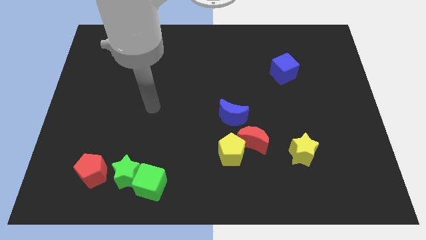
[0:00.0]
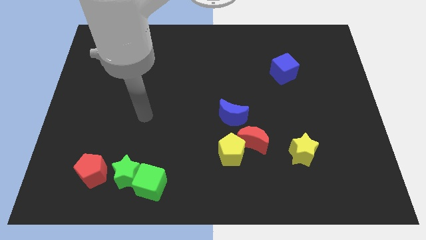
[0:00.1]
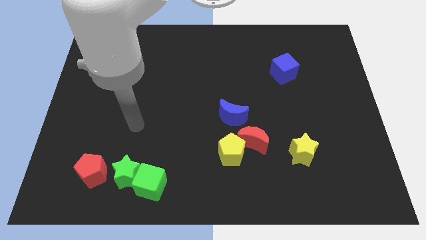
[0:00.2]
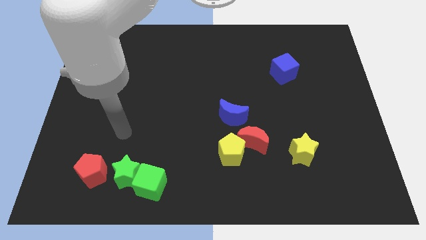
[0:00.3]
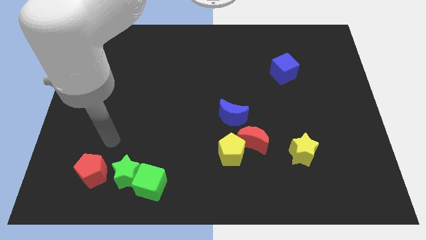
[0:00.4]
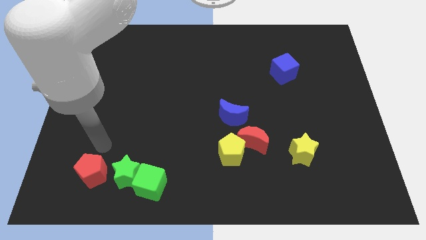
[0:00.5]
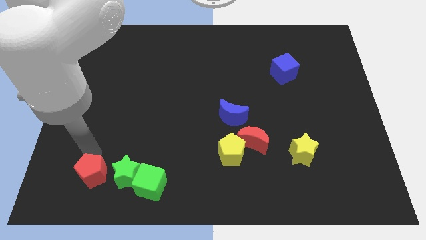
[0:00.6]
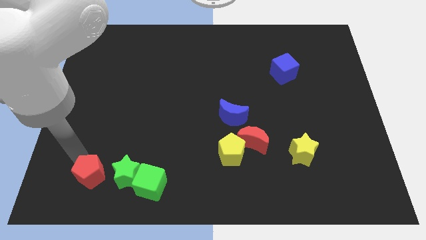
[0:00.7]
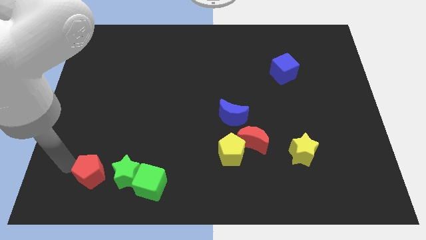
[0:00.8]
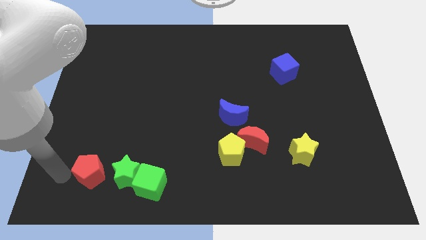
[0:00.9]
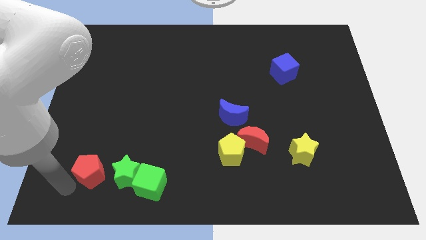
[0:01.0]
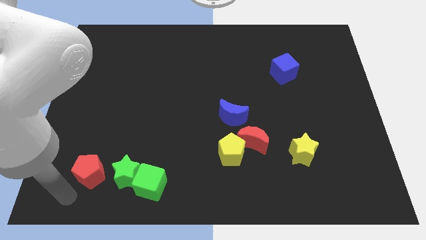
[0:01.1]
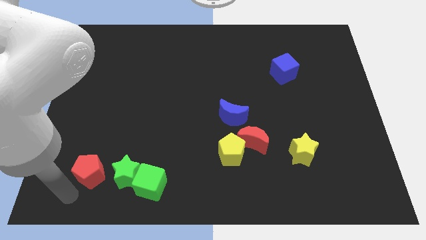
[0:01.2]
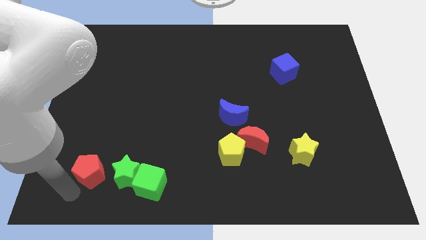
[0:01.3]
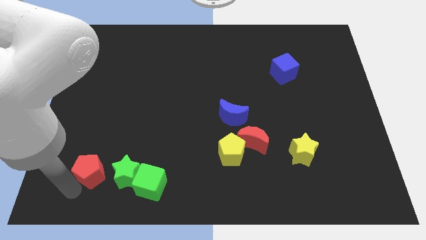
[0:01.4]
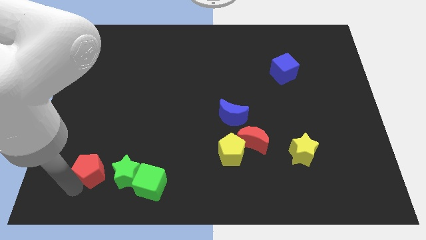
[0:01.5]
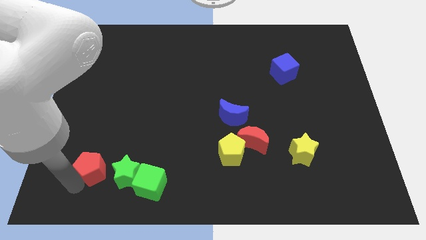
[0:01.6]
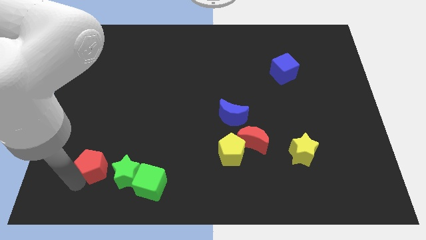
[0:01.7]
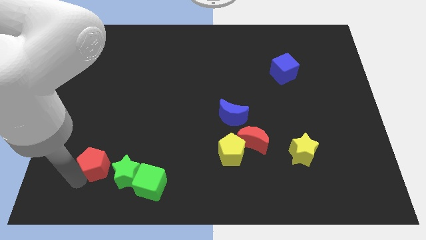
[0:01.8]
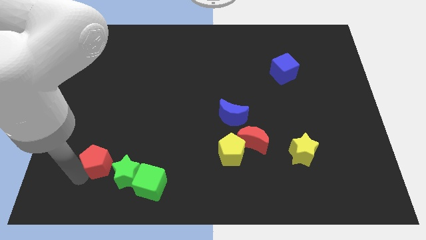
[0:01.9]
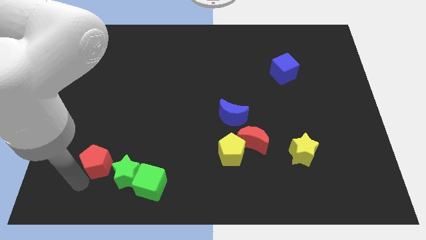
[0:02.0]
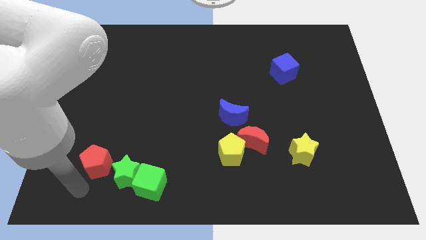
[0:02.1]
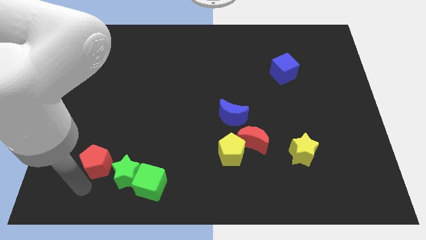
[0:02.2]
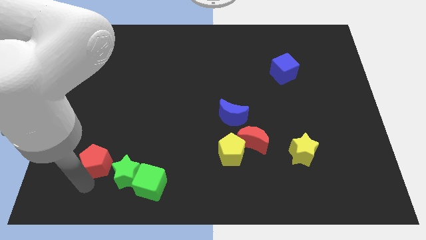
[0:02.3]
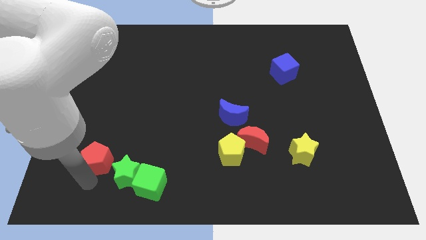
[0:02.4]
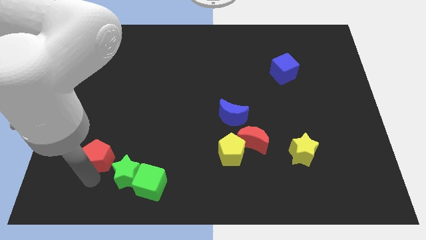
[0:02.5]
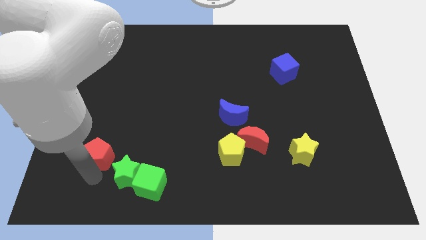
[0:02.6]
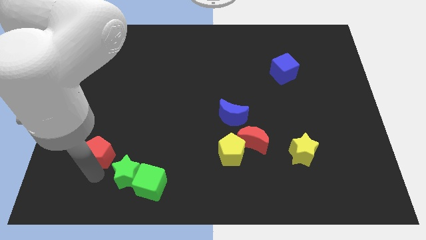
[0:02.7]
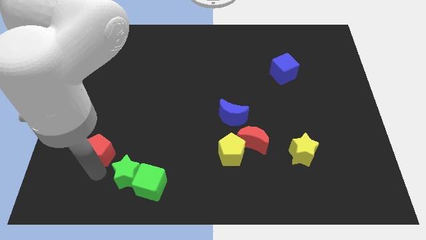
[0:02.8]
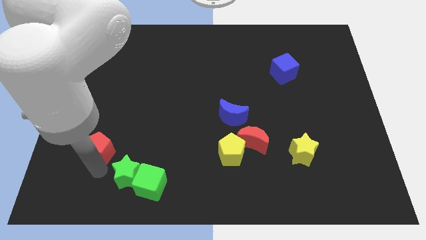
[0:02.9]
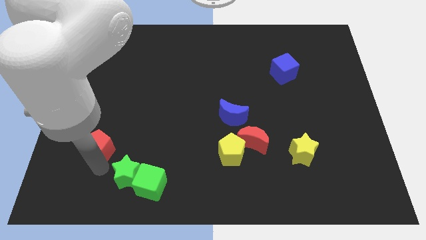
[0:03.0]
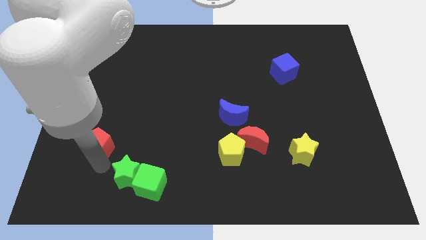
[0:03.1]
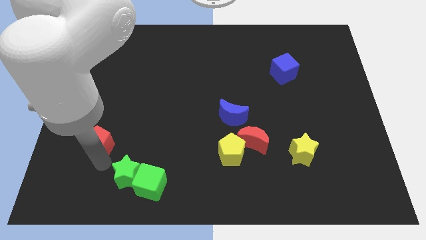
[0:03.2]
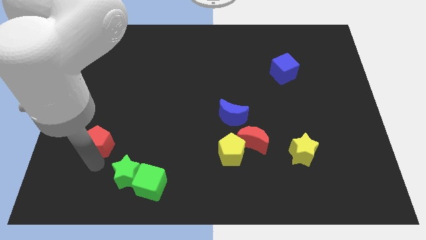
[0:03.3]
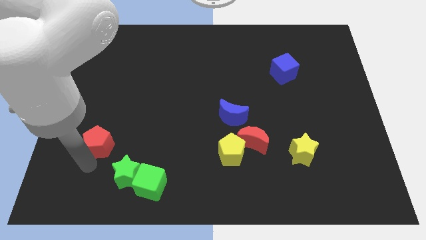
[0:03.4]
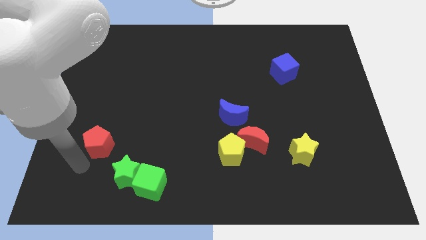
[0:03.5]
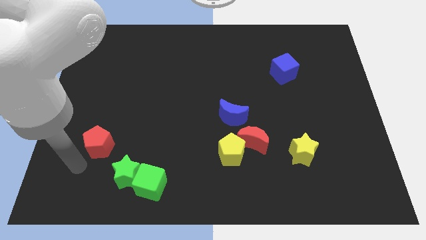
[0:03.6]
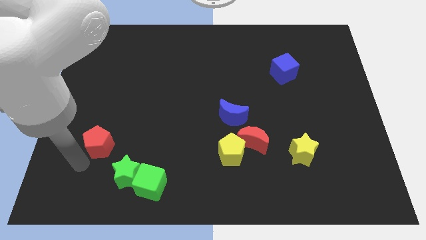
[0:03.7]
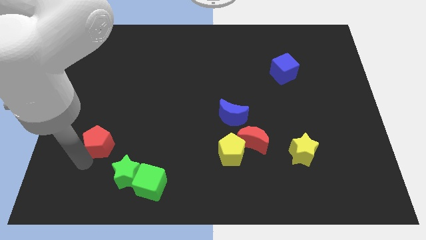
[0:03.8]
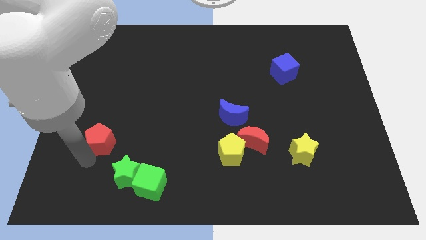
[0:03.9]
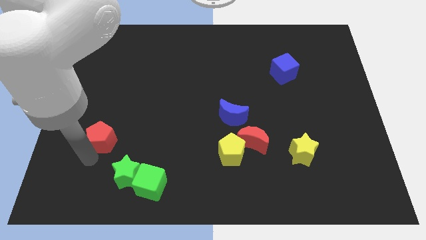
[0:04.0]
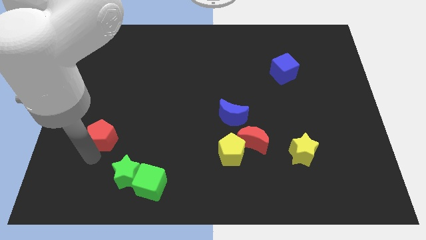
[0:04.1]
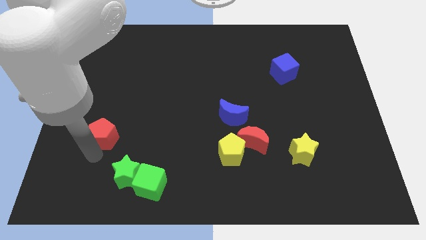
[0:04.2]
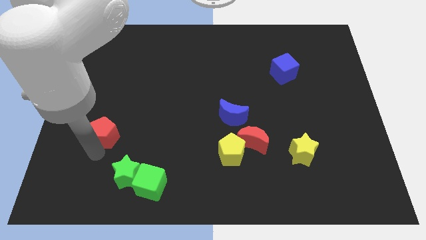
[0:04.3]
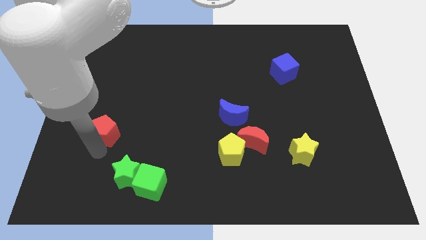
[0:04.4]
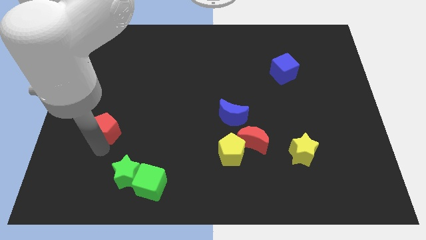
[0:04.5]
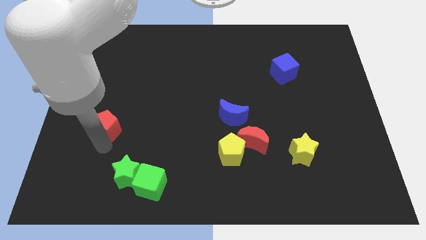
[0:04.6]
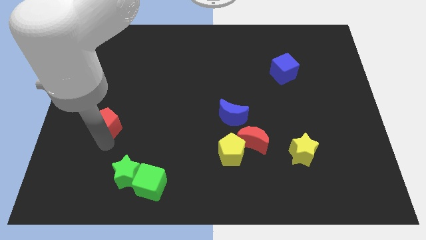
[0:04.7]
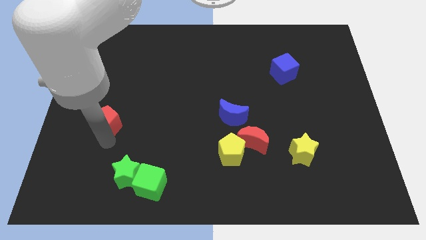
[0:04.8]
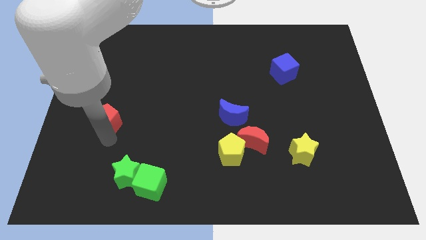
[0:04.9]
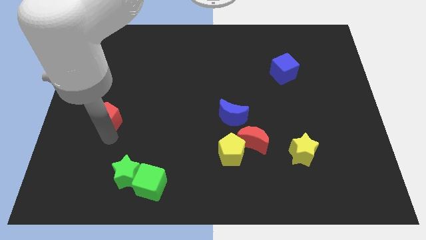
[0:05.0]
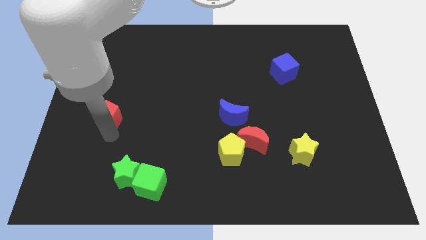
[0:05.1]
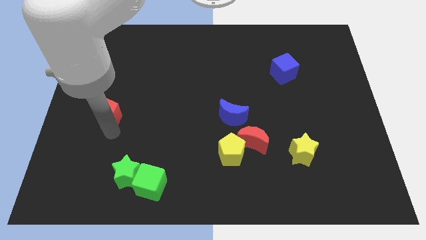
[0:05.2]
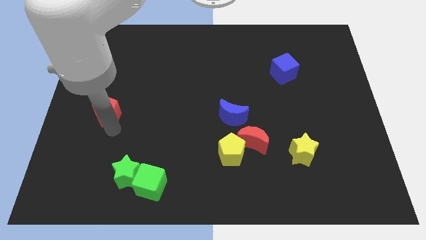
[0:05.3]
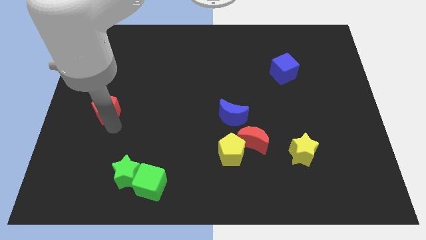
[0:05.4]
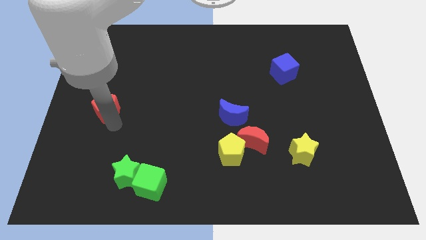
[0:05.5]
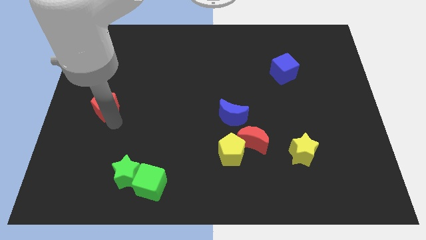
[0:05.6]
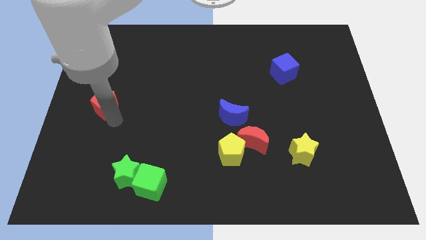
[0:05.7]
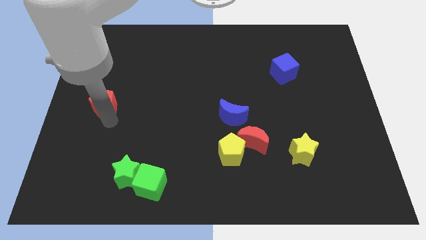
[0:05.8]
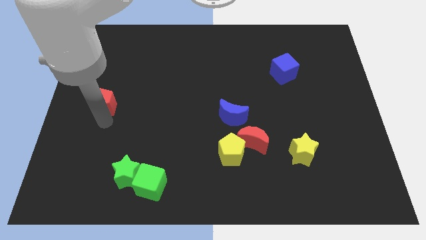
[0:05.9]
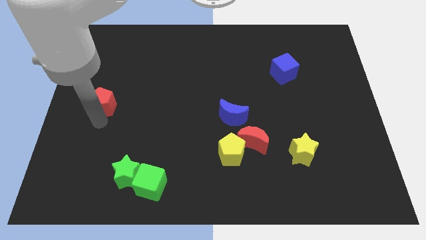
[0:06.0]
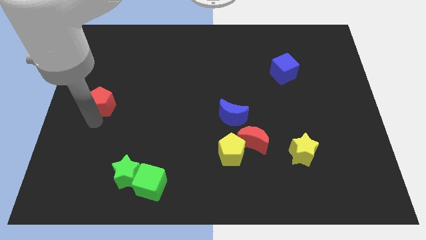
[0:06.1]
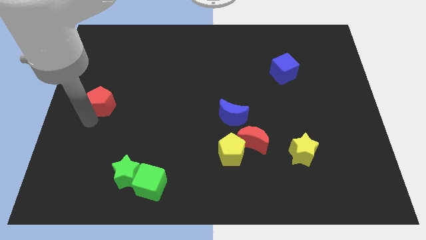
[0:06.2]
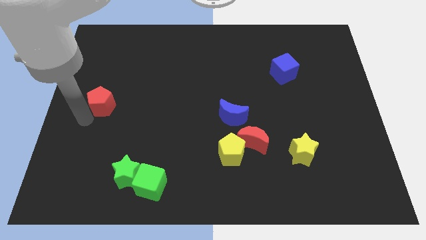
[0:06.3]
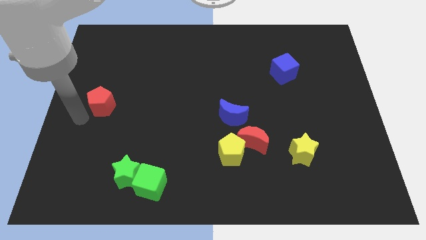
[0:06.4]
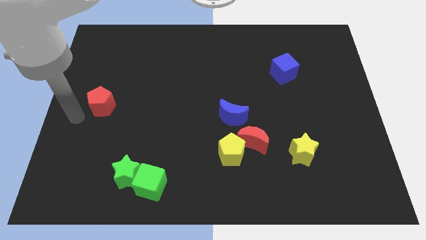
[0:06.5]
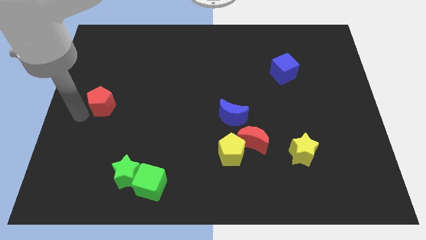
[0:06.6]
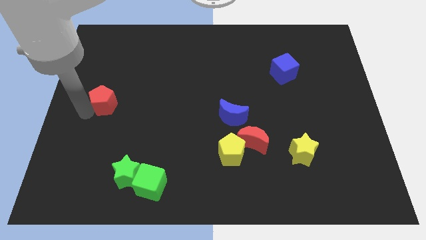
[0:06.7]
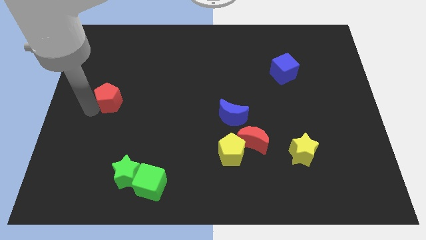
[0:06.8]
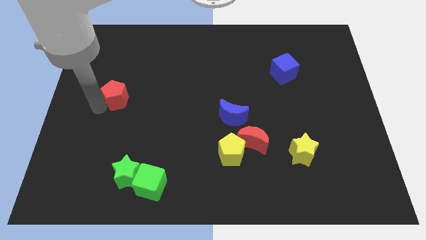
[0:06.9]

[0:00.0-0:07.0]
move the red pentagon upwards

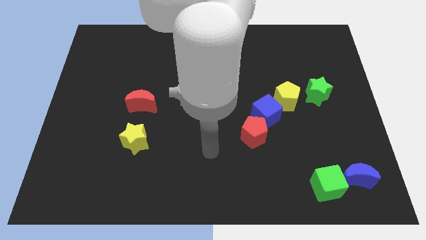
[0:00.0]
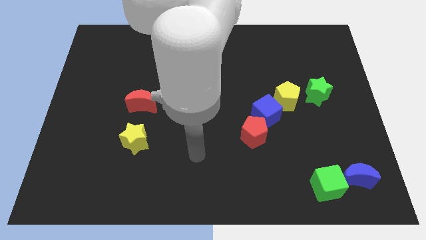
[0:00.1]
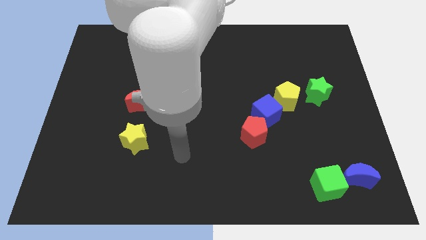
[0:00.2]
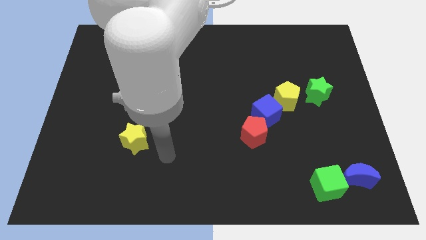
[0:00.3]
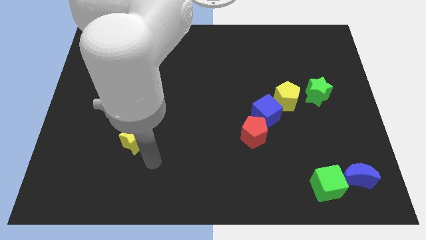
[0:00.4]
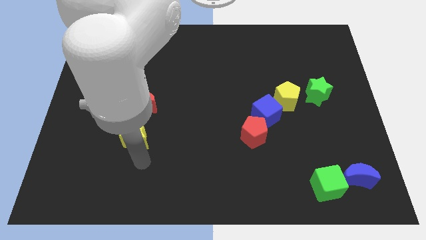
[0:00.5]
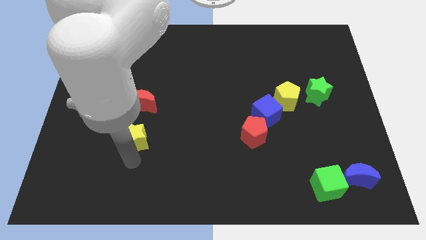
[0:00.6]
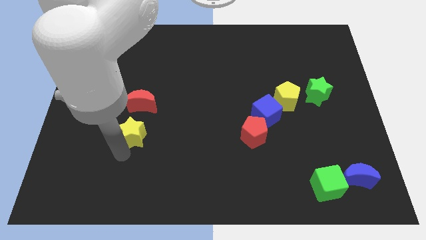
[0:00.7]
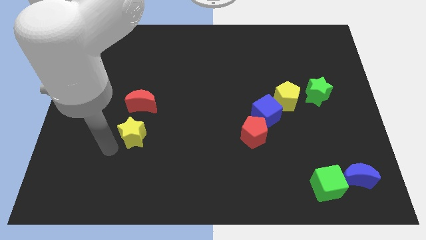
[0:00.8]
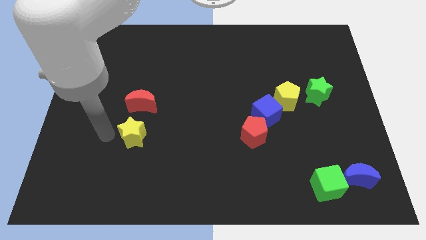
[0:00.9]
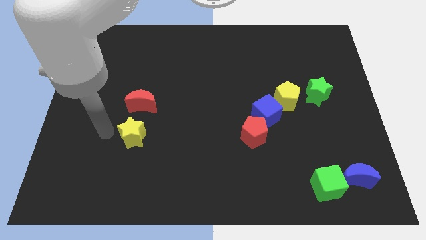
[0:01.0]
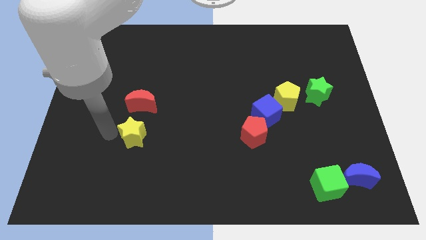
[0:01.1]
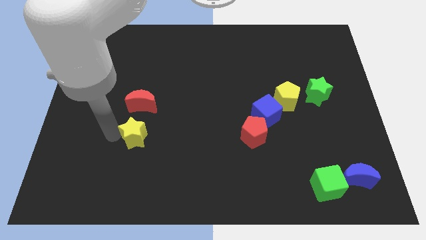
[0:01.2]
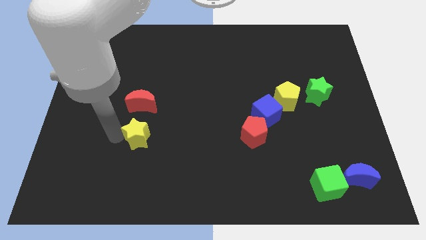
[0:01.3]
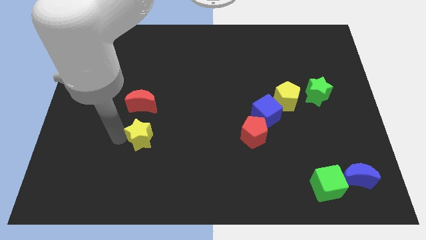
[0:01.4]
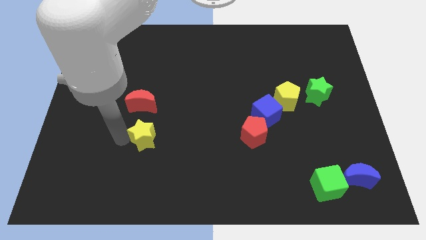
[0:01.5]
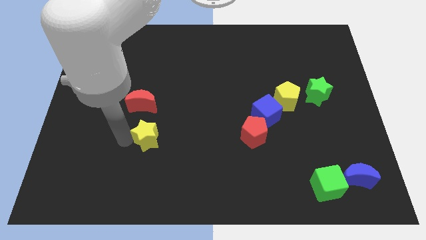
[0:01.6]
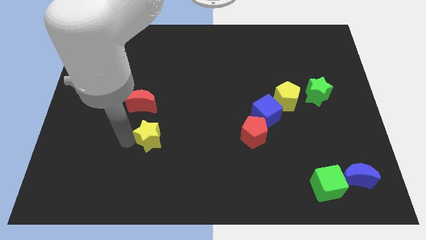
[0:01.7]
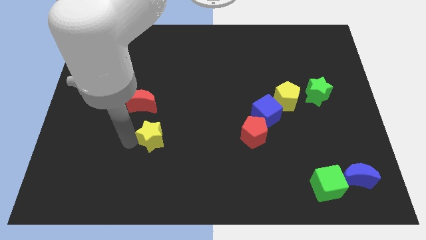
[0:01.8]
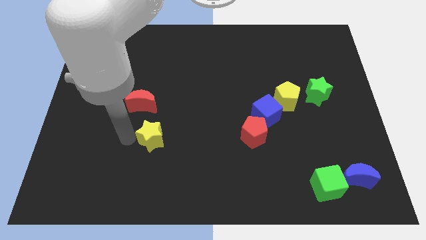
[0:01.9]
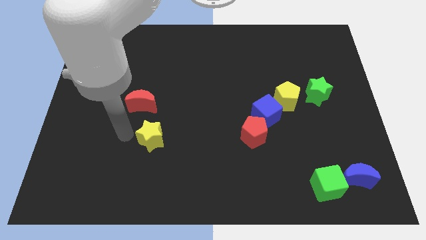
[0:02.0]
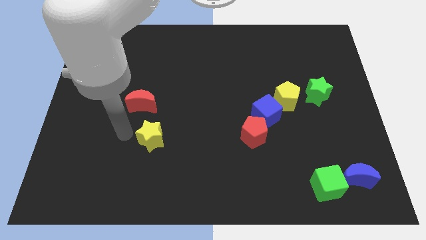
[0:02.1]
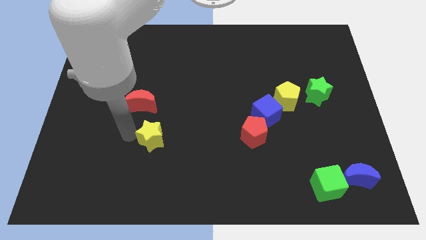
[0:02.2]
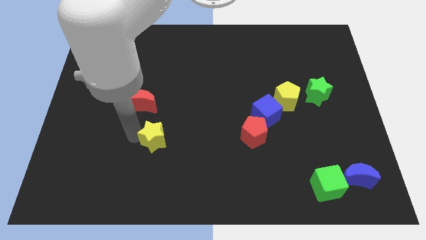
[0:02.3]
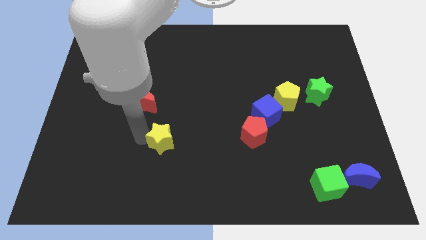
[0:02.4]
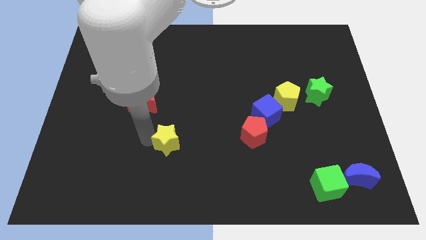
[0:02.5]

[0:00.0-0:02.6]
push the yellow star right a bit
